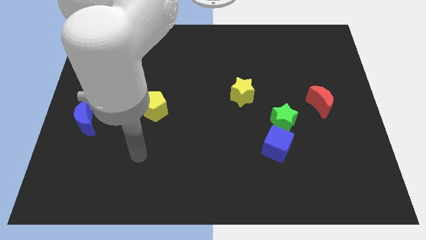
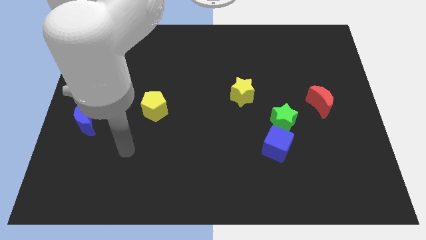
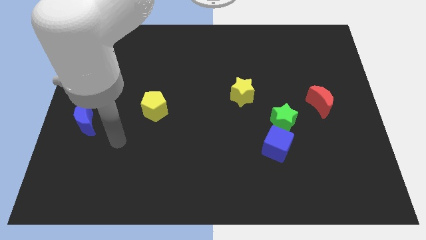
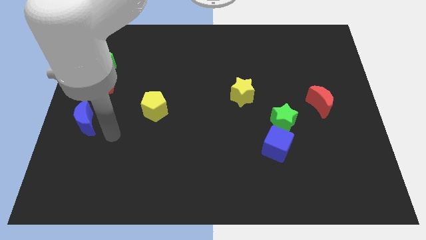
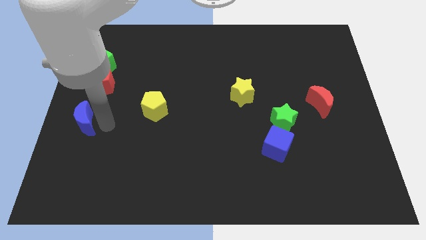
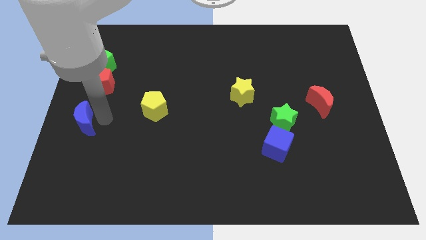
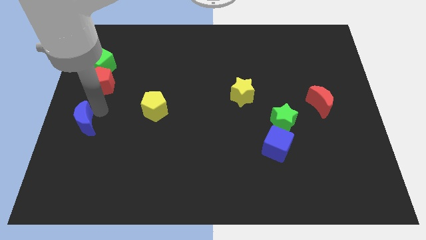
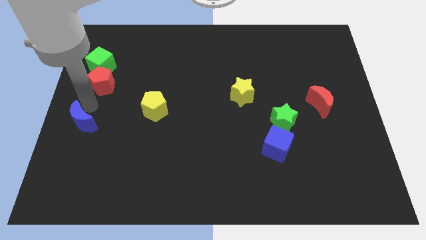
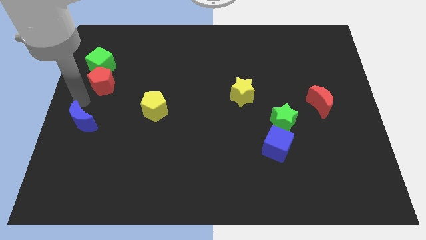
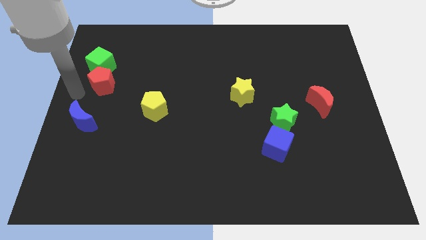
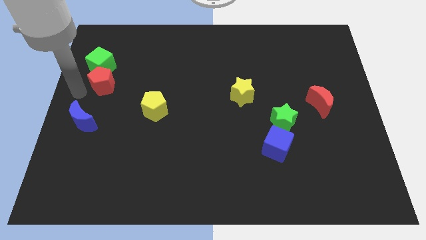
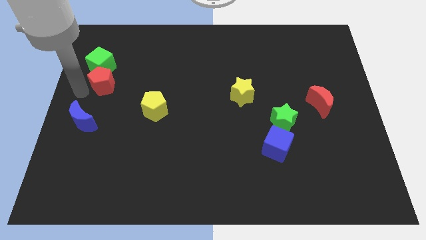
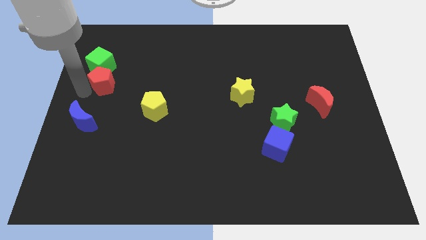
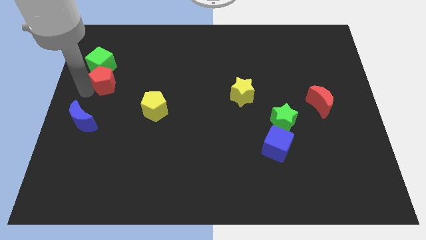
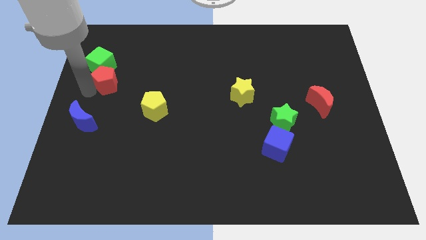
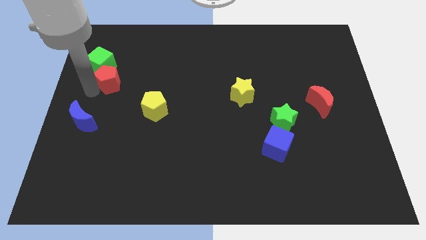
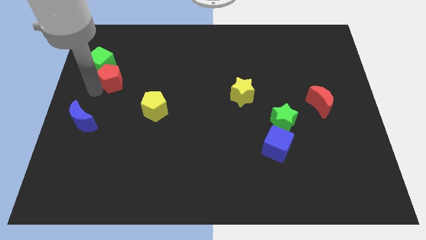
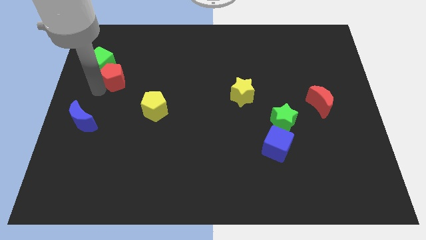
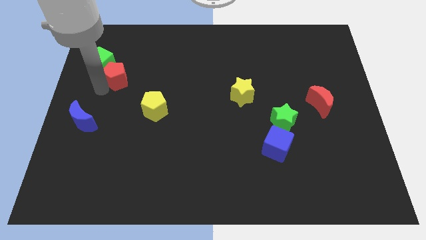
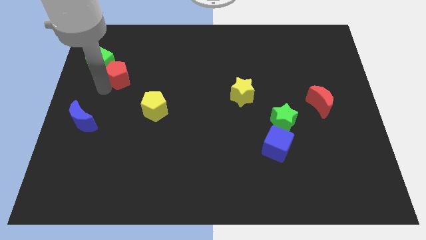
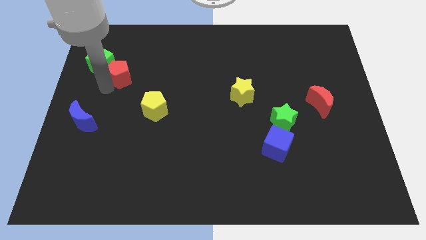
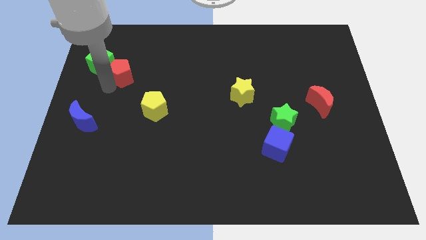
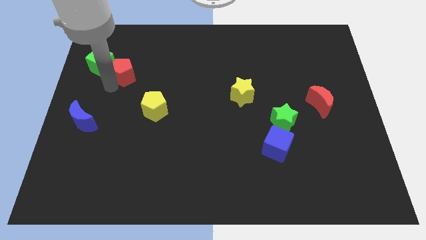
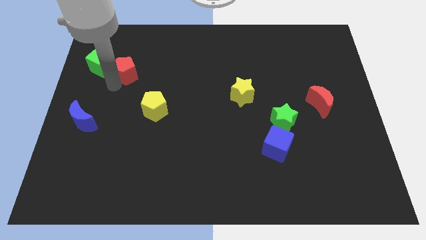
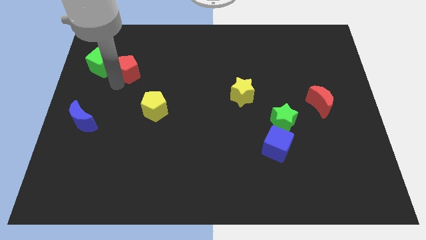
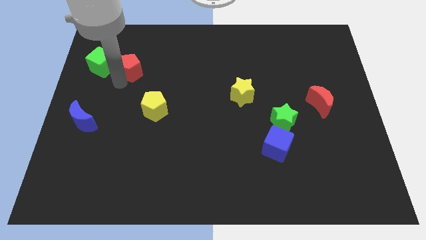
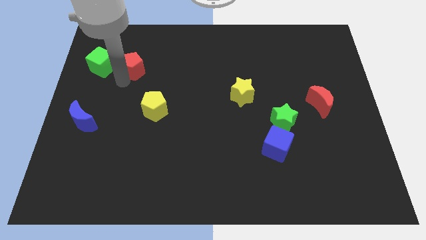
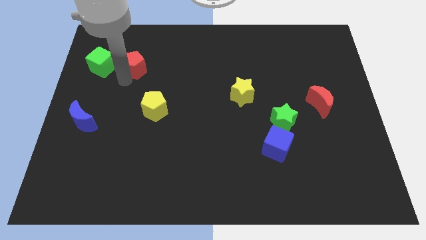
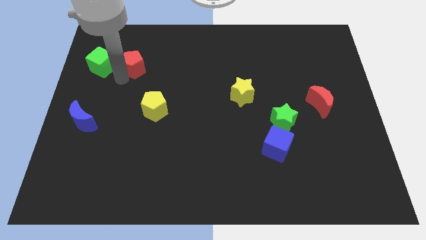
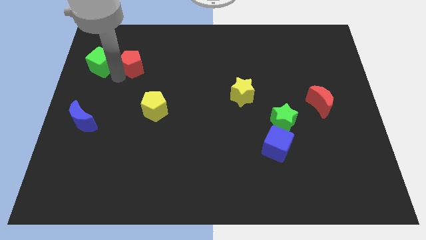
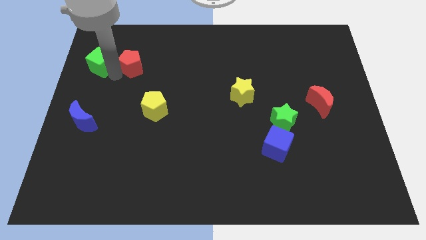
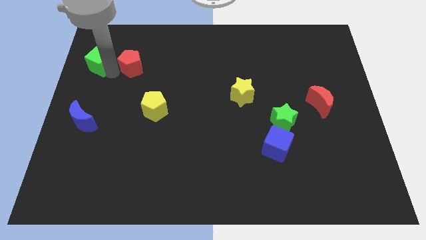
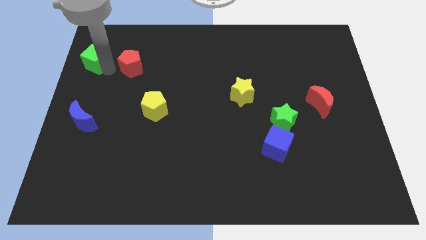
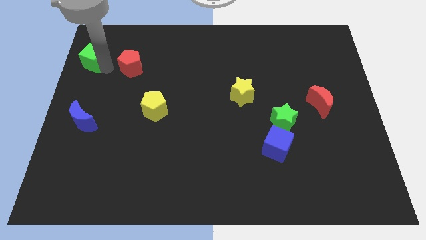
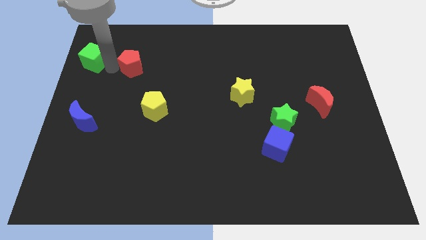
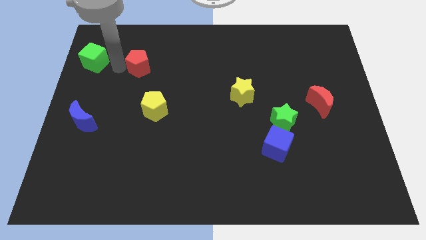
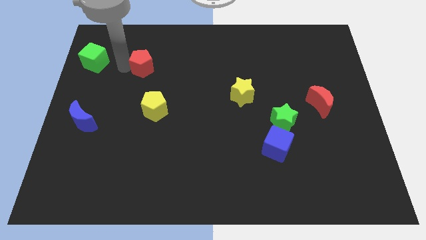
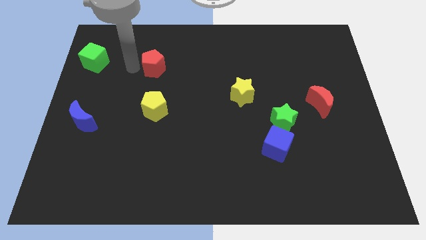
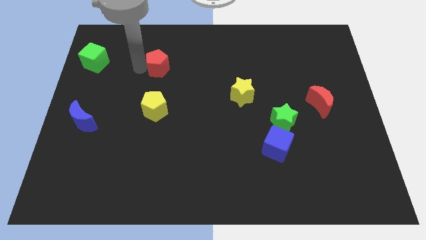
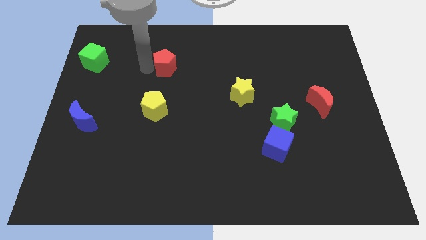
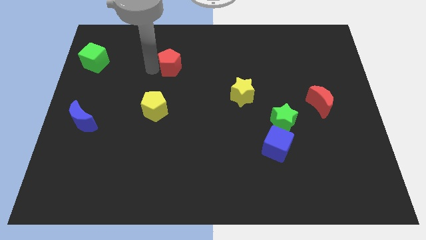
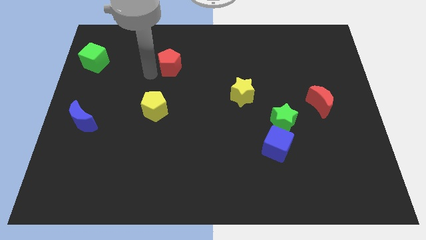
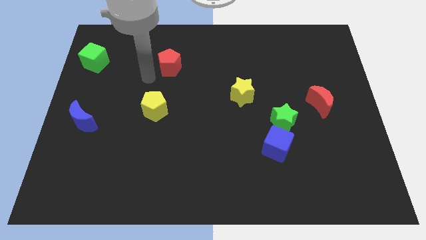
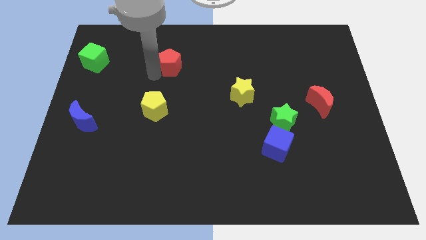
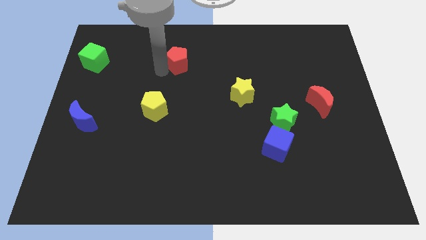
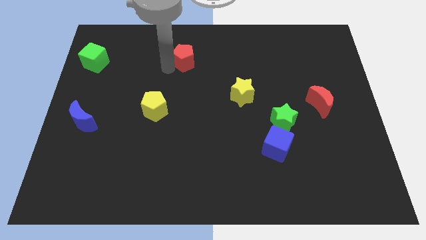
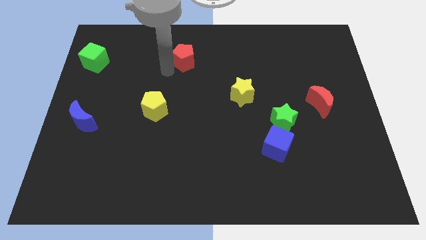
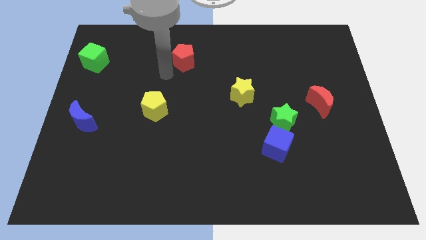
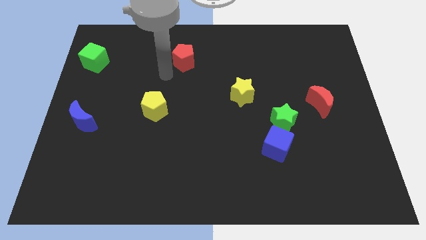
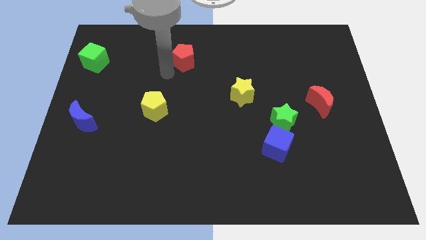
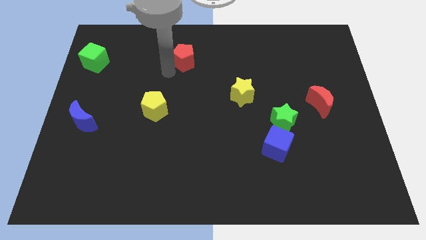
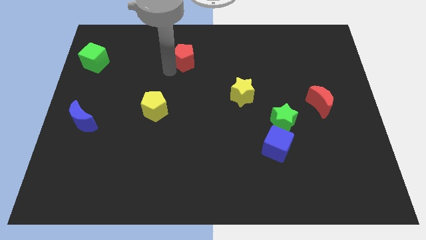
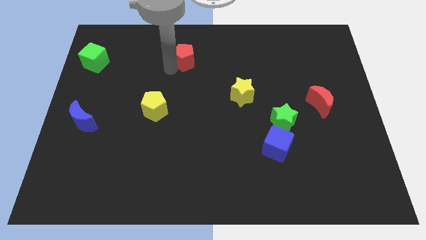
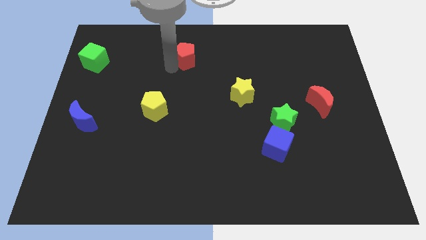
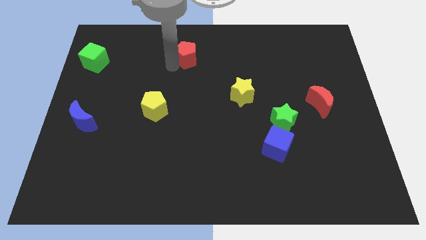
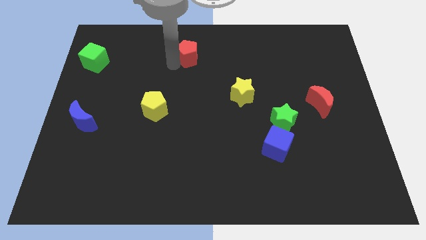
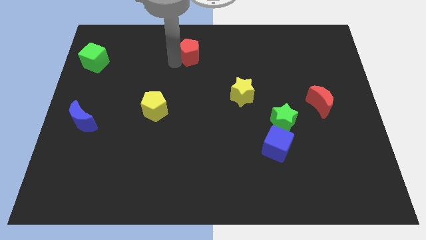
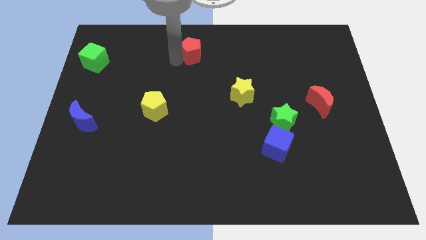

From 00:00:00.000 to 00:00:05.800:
move the red pentagon to the top side
